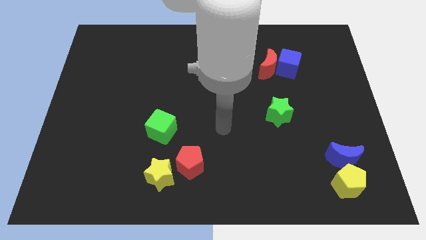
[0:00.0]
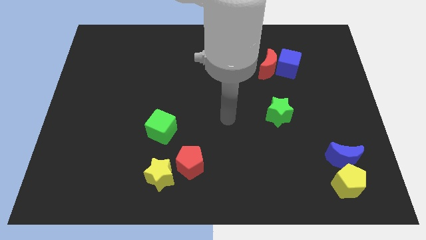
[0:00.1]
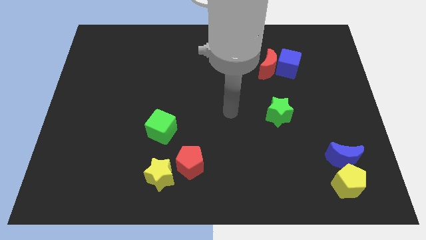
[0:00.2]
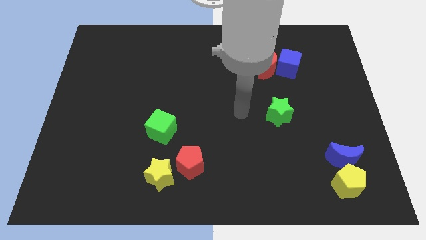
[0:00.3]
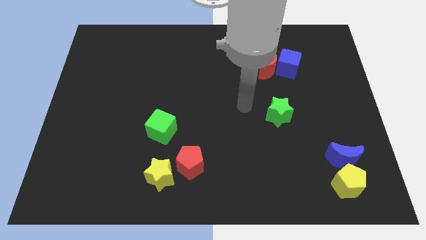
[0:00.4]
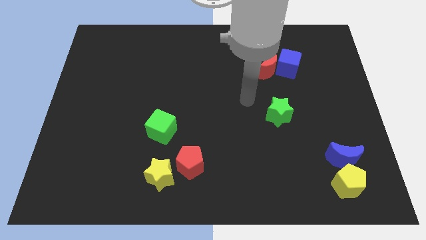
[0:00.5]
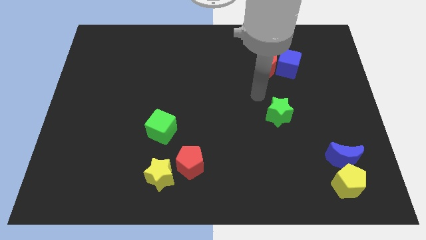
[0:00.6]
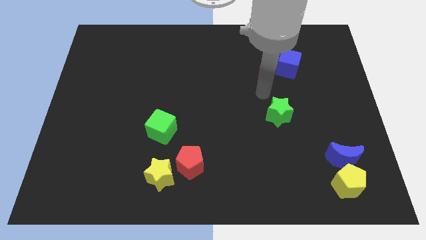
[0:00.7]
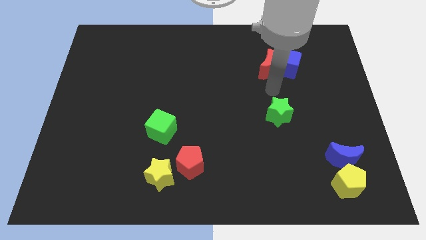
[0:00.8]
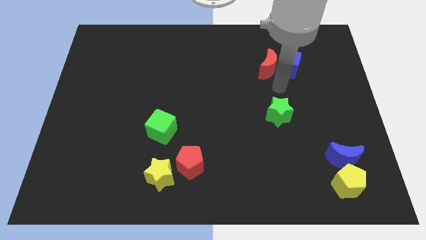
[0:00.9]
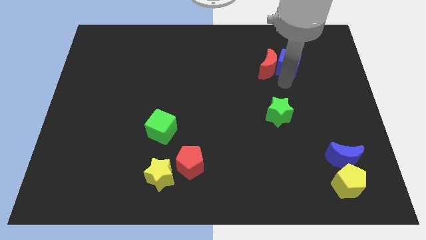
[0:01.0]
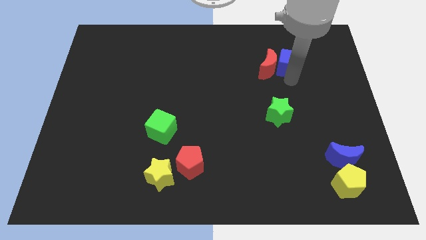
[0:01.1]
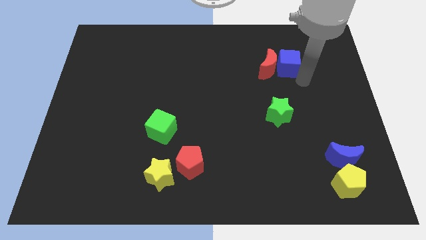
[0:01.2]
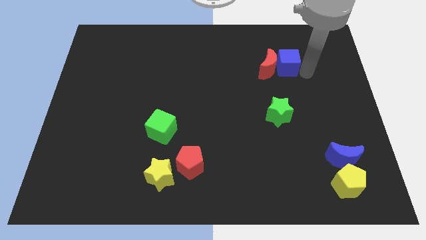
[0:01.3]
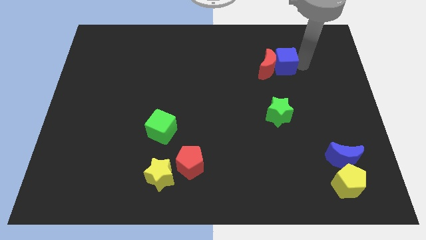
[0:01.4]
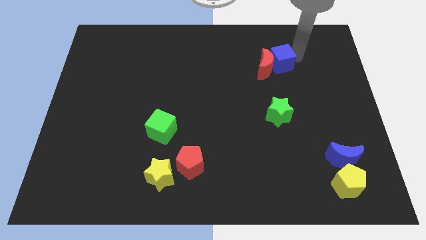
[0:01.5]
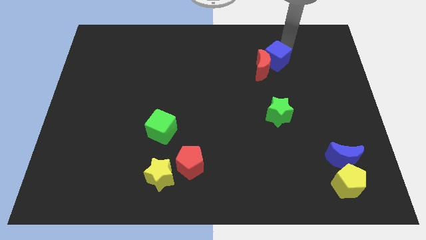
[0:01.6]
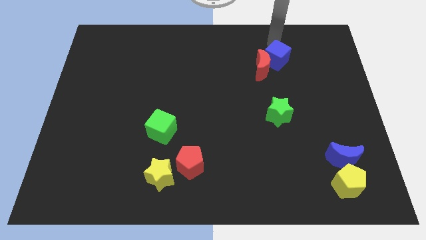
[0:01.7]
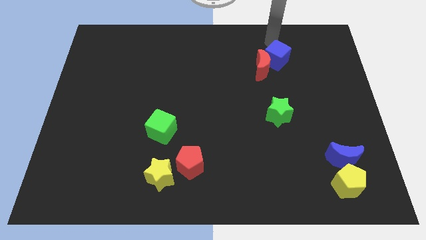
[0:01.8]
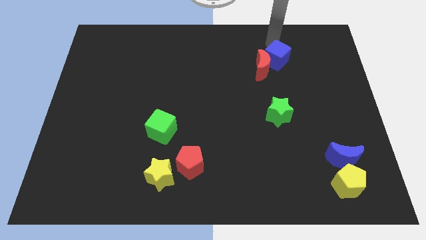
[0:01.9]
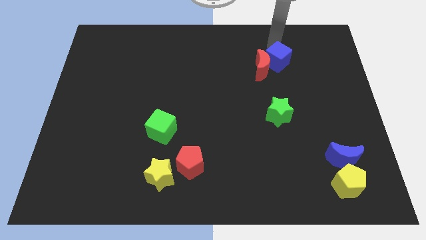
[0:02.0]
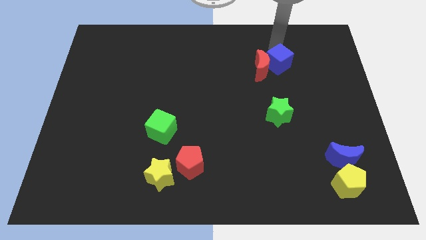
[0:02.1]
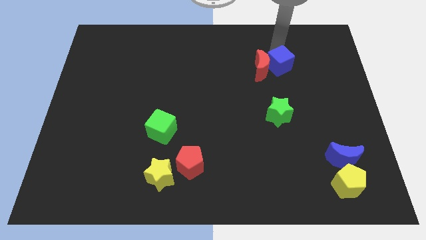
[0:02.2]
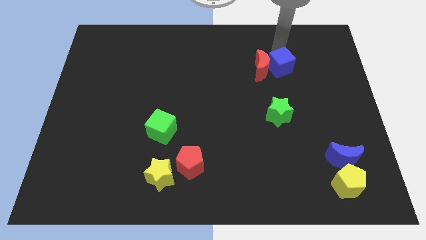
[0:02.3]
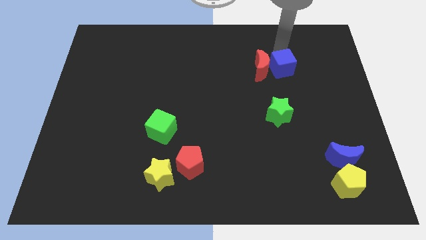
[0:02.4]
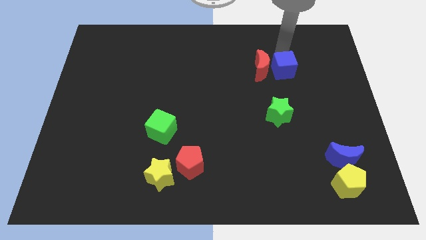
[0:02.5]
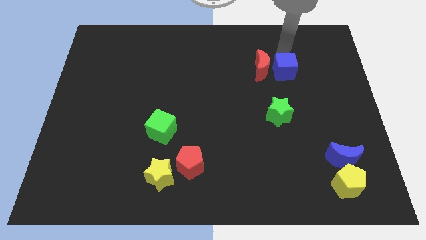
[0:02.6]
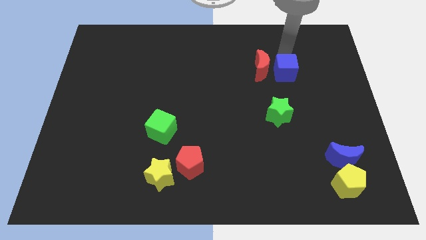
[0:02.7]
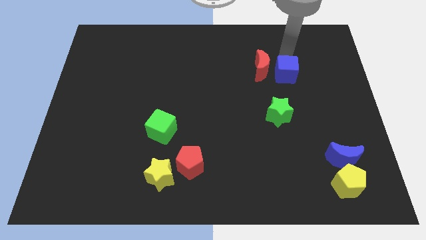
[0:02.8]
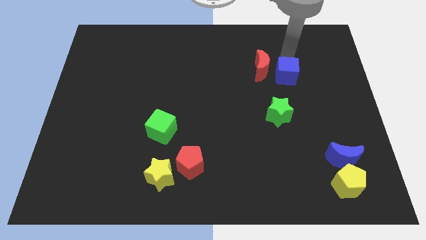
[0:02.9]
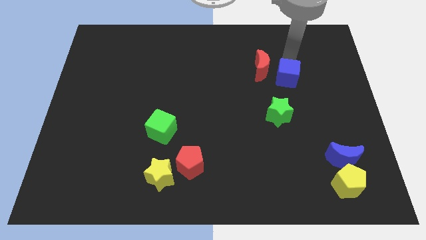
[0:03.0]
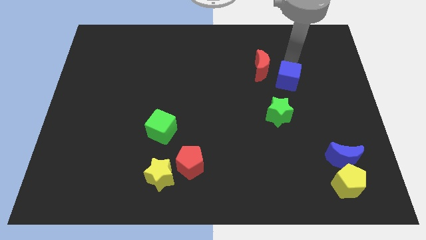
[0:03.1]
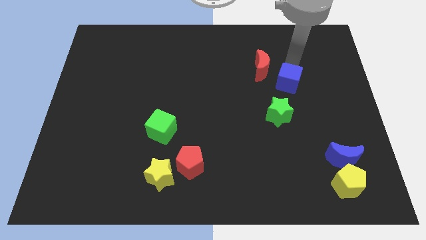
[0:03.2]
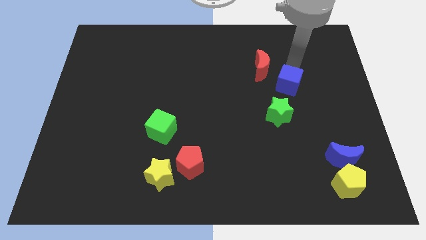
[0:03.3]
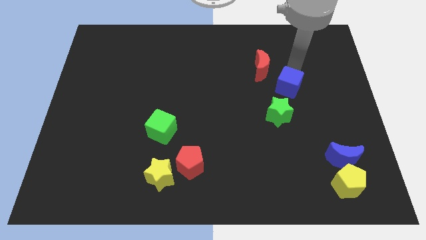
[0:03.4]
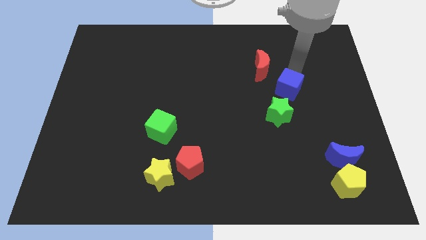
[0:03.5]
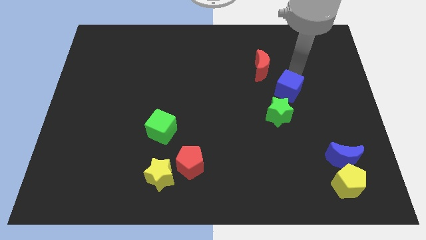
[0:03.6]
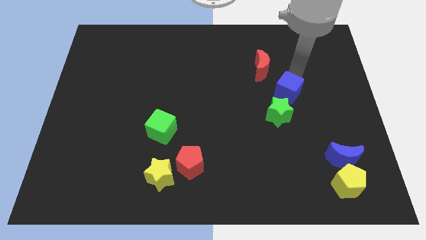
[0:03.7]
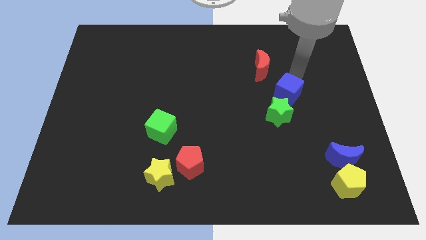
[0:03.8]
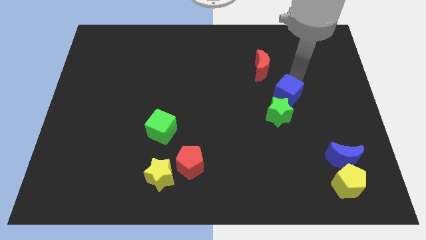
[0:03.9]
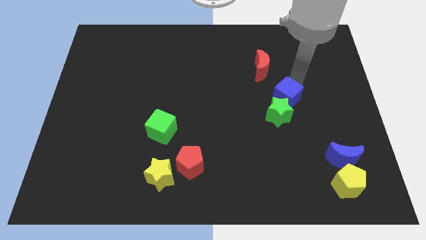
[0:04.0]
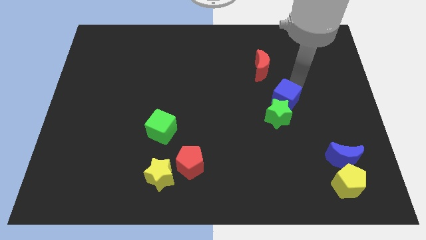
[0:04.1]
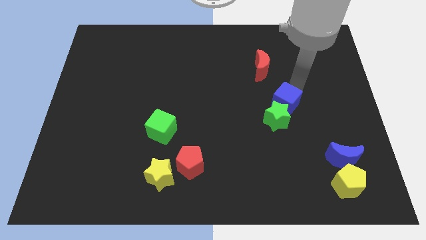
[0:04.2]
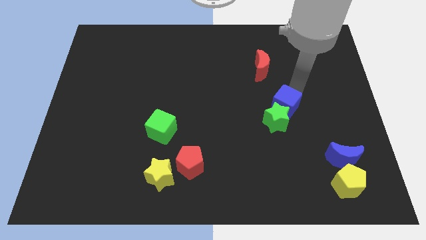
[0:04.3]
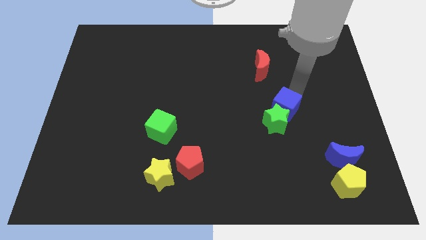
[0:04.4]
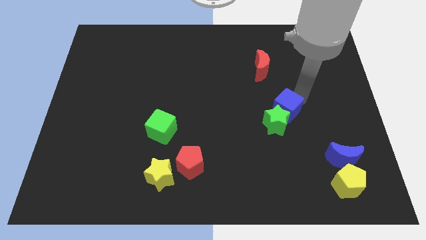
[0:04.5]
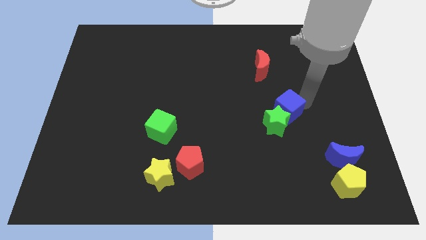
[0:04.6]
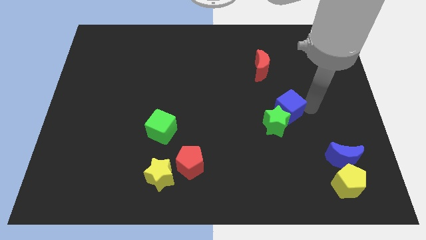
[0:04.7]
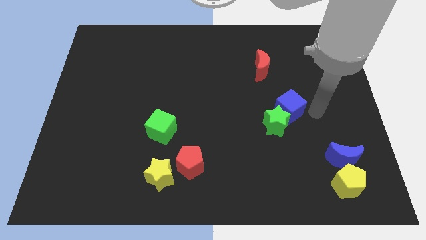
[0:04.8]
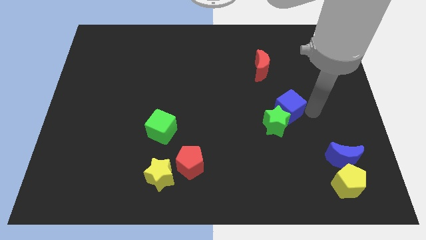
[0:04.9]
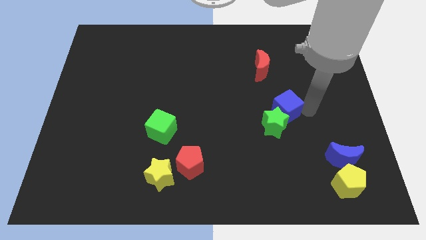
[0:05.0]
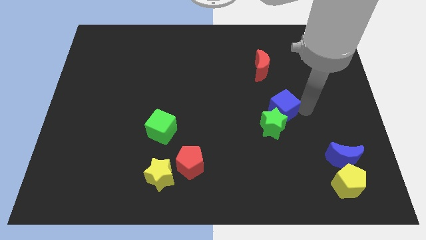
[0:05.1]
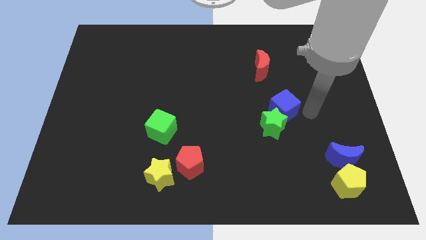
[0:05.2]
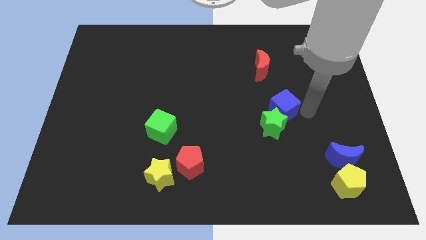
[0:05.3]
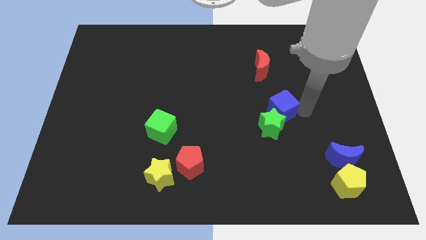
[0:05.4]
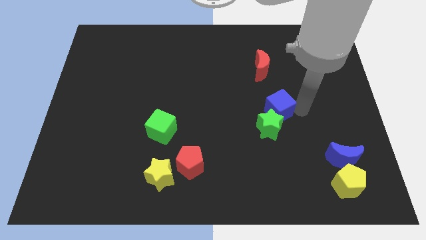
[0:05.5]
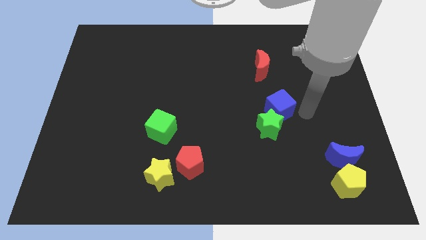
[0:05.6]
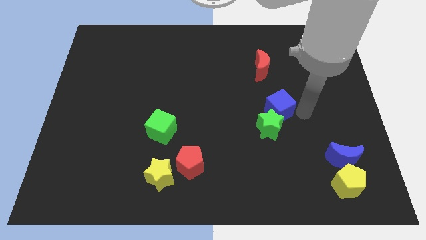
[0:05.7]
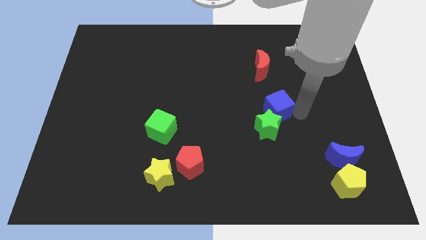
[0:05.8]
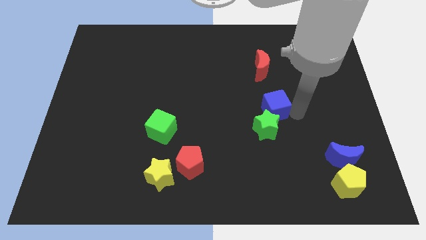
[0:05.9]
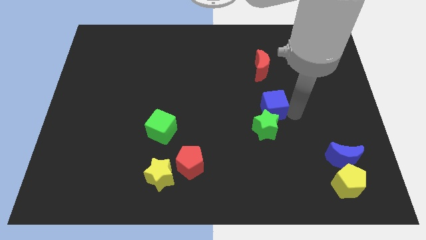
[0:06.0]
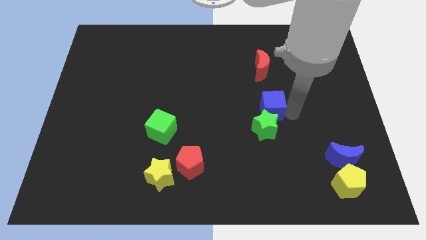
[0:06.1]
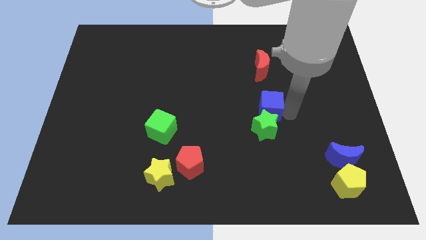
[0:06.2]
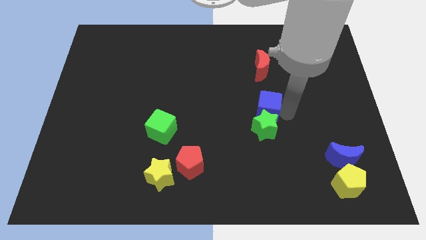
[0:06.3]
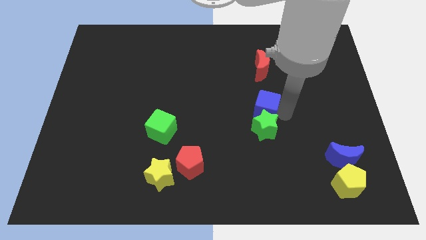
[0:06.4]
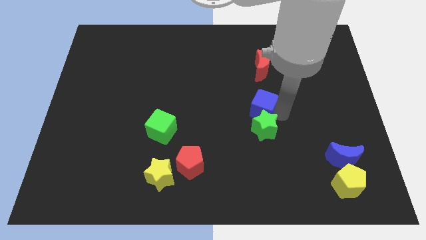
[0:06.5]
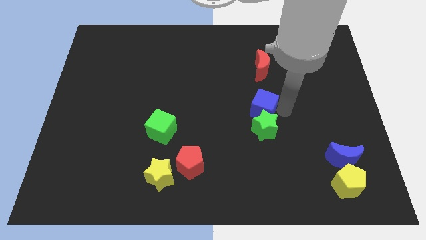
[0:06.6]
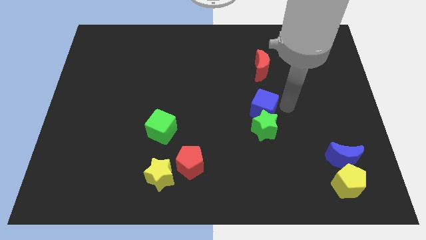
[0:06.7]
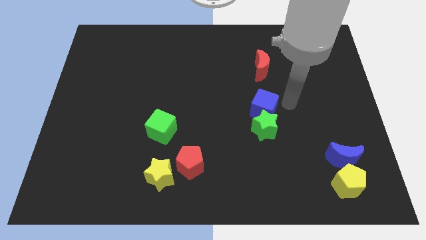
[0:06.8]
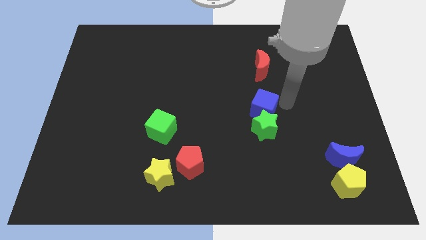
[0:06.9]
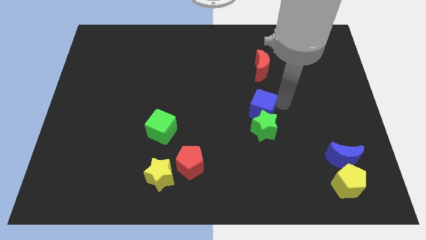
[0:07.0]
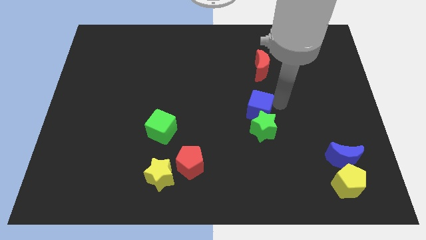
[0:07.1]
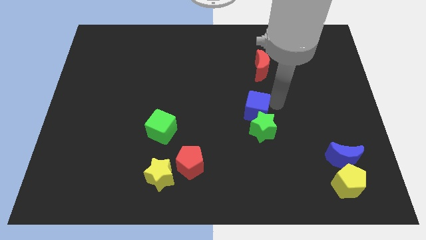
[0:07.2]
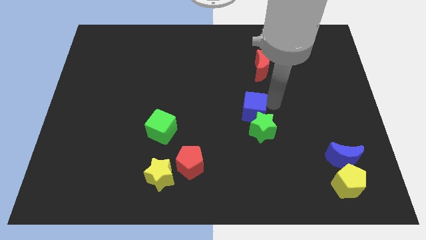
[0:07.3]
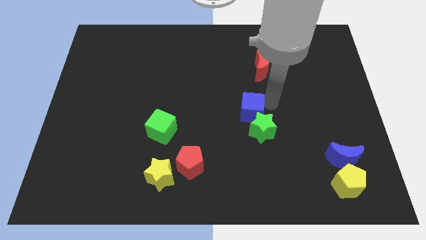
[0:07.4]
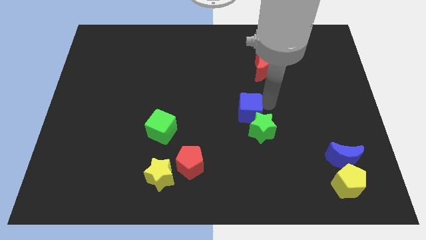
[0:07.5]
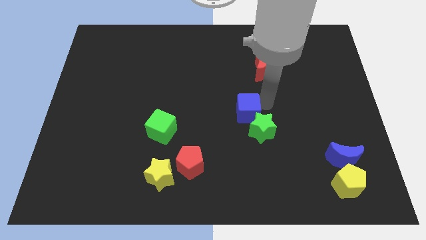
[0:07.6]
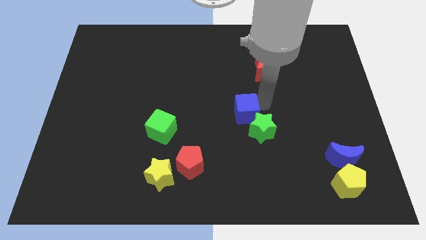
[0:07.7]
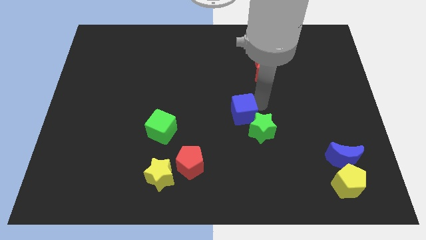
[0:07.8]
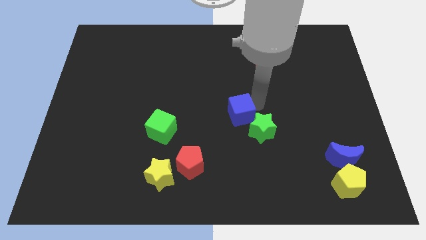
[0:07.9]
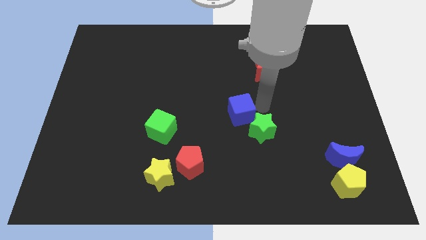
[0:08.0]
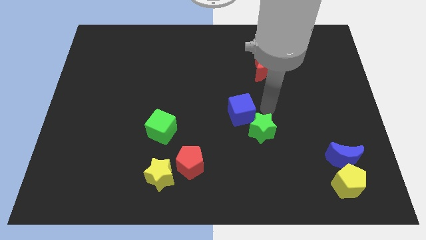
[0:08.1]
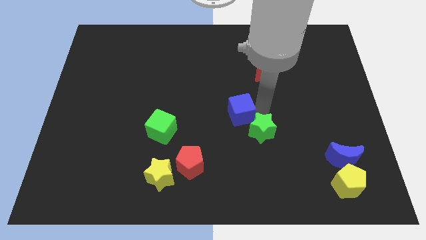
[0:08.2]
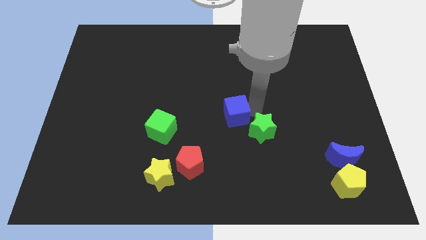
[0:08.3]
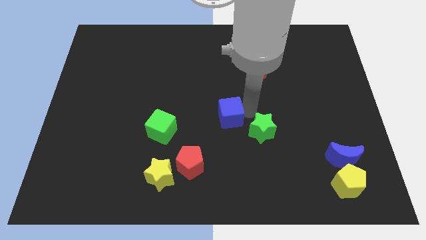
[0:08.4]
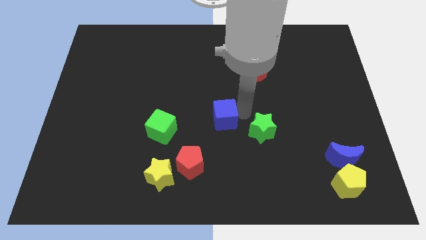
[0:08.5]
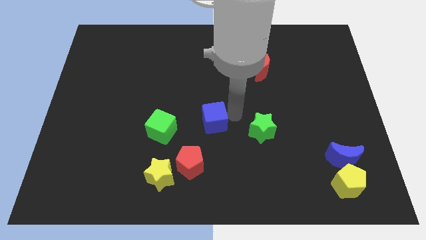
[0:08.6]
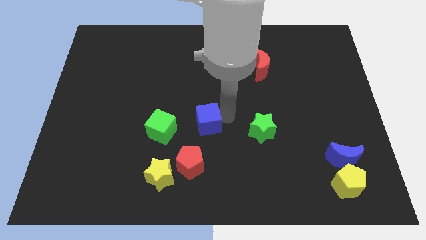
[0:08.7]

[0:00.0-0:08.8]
move the blue cube to the top of the red pentagon
